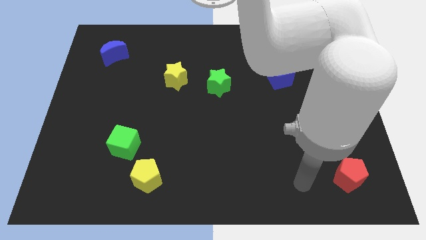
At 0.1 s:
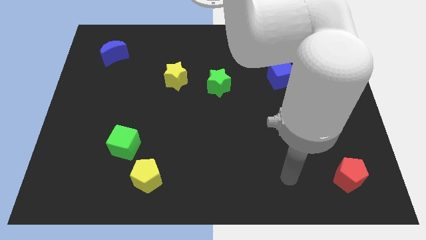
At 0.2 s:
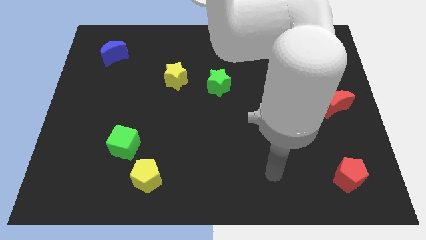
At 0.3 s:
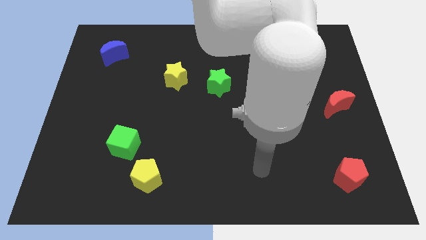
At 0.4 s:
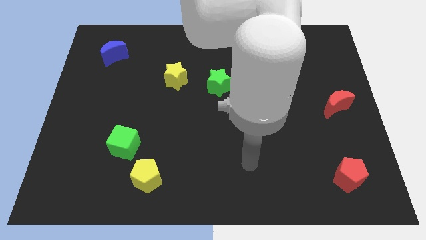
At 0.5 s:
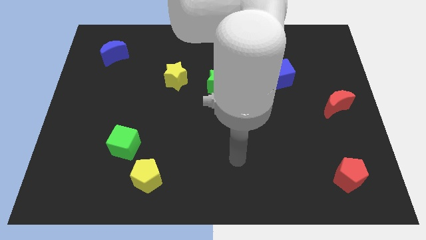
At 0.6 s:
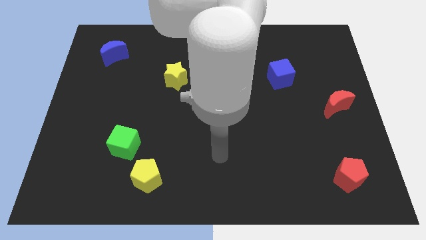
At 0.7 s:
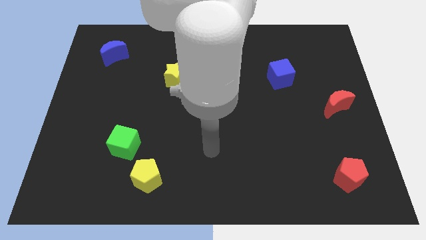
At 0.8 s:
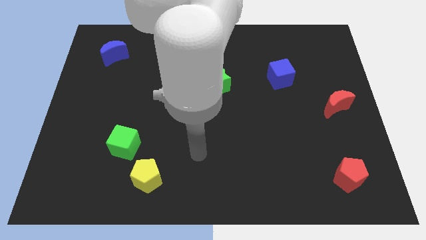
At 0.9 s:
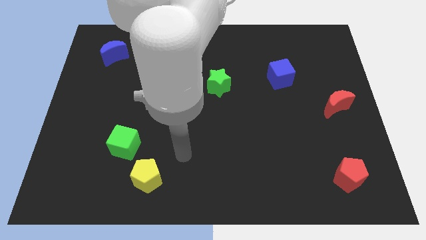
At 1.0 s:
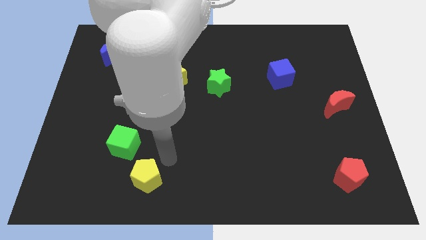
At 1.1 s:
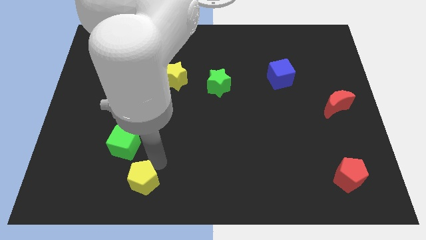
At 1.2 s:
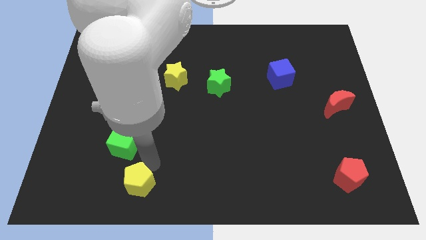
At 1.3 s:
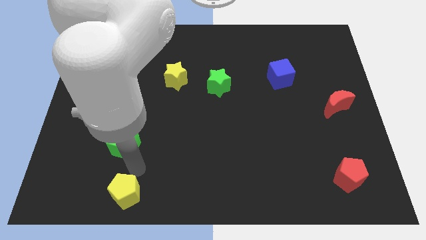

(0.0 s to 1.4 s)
pull the green cube apart from the yellow pentagon

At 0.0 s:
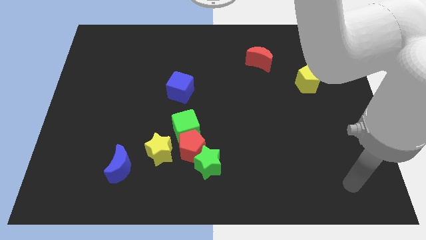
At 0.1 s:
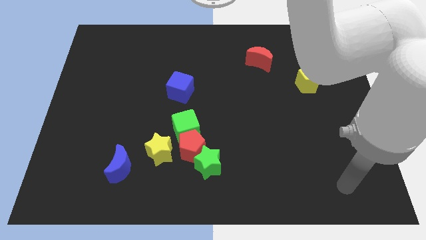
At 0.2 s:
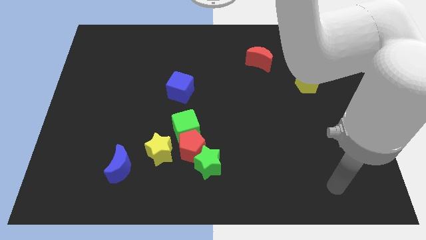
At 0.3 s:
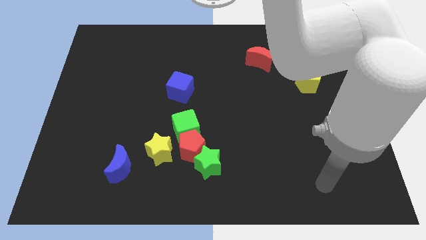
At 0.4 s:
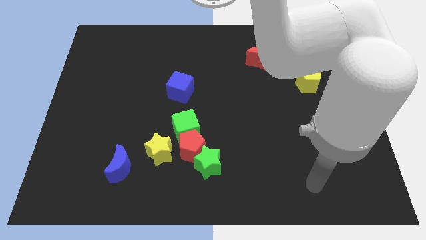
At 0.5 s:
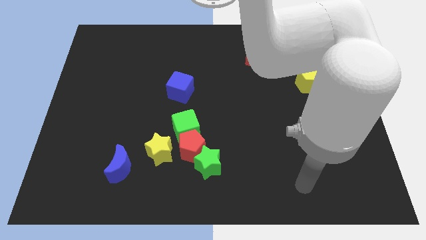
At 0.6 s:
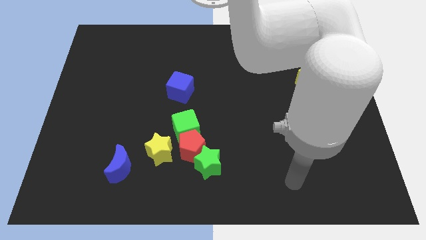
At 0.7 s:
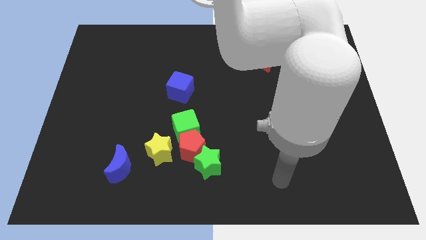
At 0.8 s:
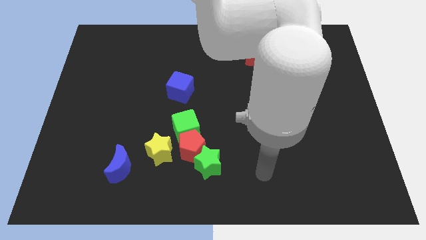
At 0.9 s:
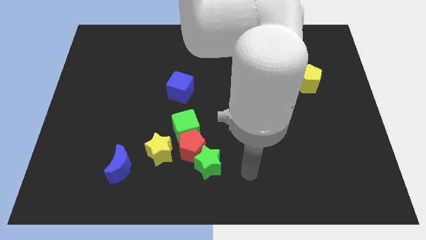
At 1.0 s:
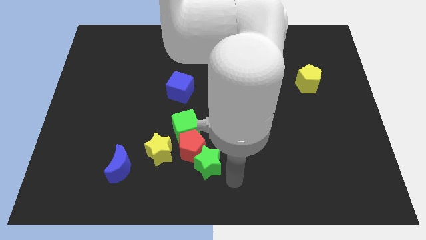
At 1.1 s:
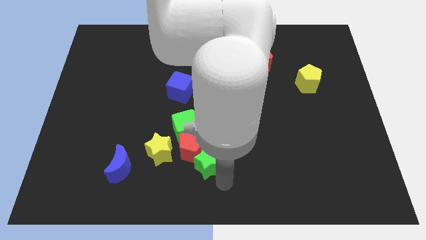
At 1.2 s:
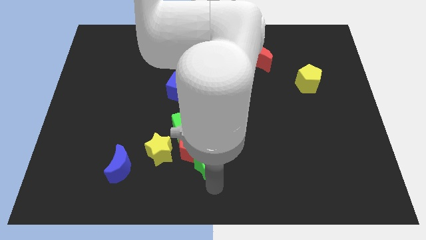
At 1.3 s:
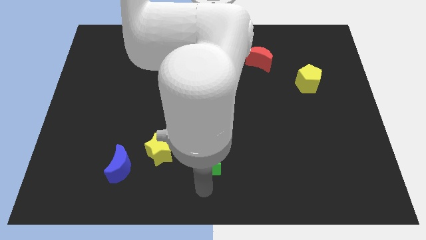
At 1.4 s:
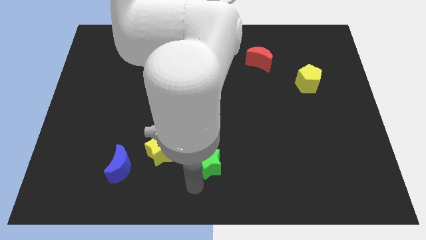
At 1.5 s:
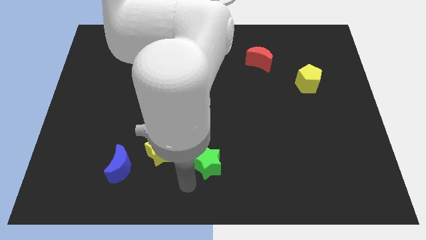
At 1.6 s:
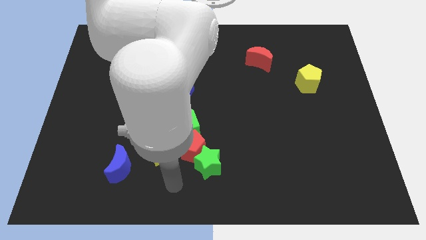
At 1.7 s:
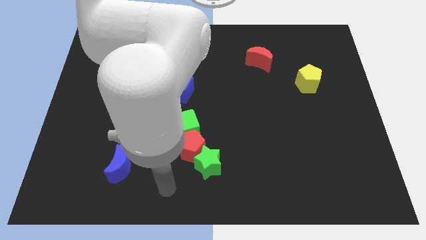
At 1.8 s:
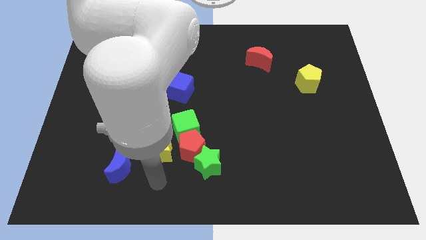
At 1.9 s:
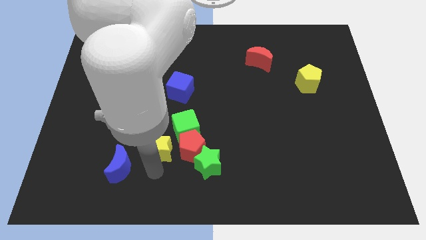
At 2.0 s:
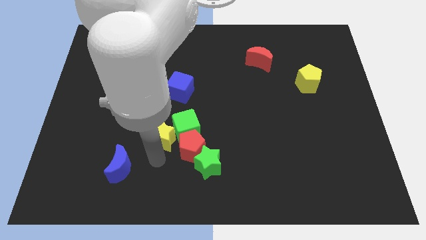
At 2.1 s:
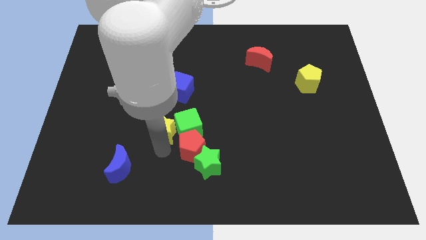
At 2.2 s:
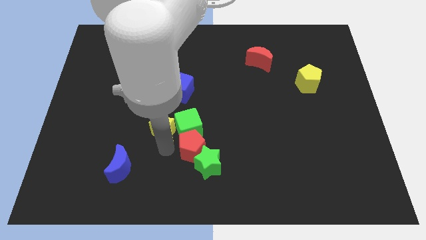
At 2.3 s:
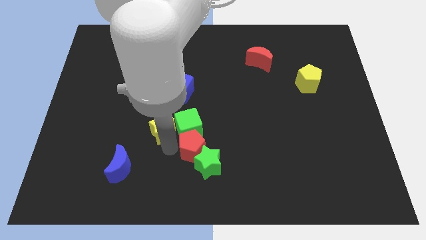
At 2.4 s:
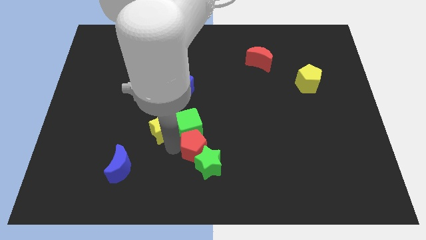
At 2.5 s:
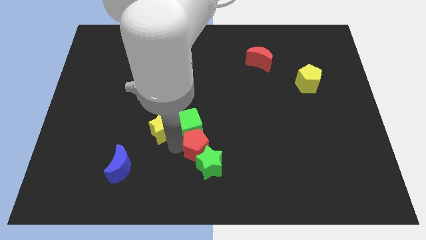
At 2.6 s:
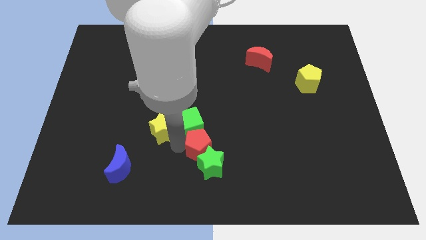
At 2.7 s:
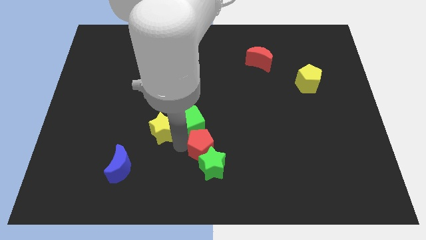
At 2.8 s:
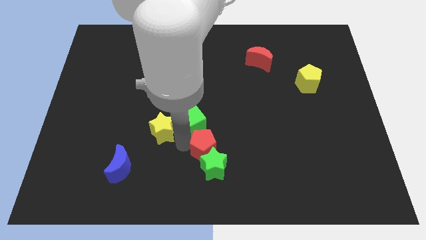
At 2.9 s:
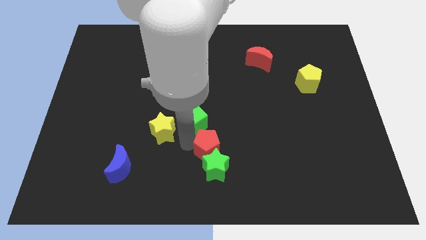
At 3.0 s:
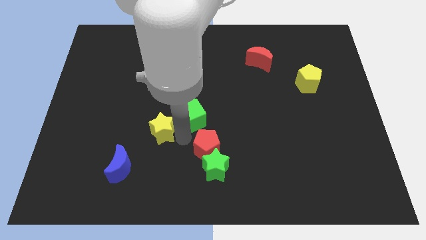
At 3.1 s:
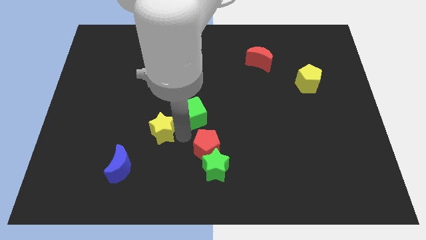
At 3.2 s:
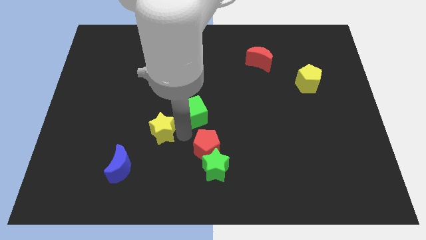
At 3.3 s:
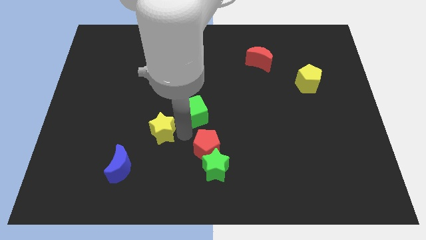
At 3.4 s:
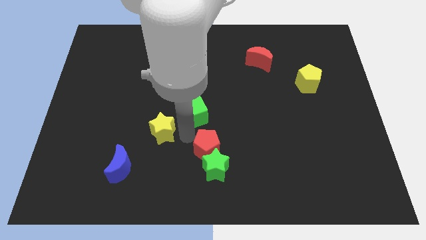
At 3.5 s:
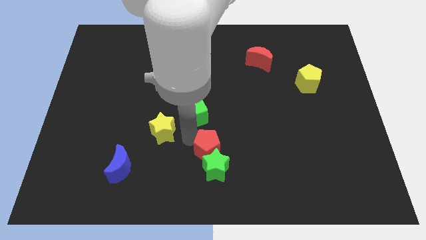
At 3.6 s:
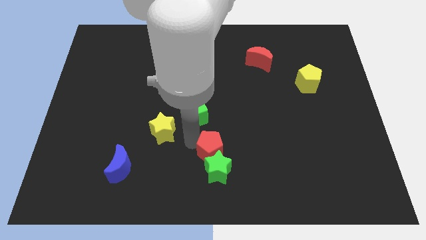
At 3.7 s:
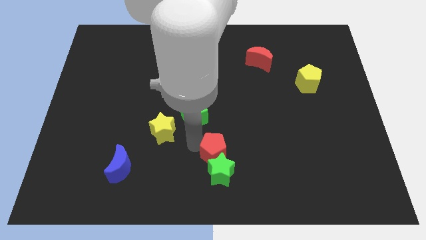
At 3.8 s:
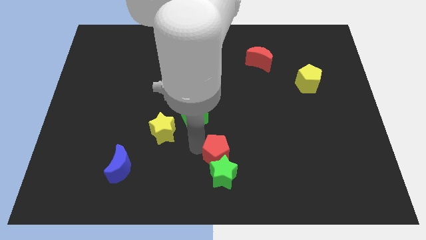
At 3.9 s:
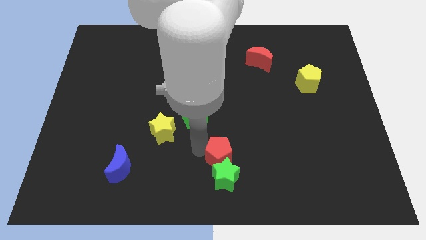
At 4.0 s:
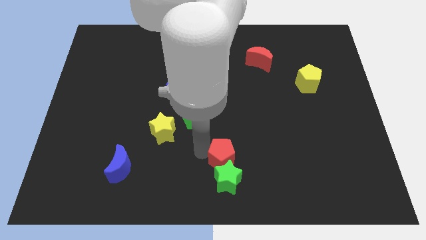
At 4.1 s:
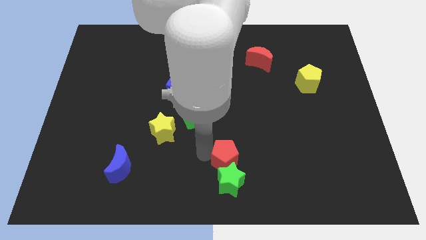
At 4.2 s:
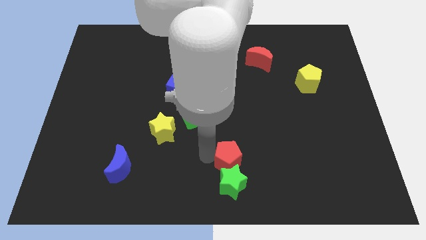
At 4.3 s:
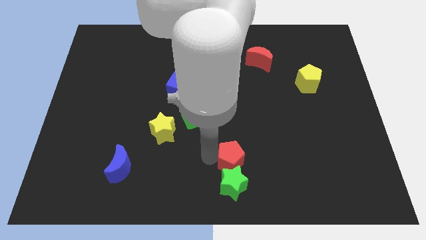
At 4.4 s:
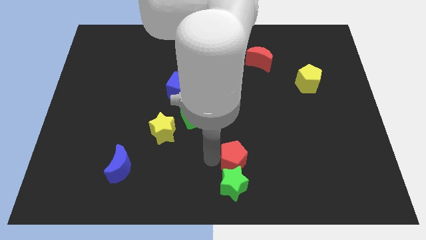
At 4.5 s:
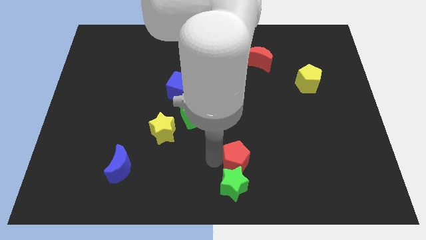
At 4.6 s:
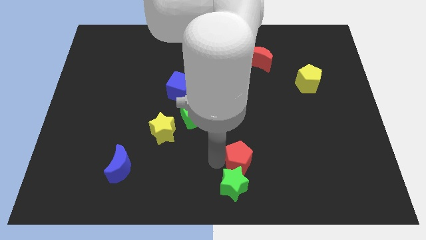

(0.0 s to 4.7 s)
pull the red pentagon apart from the green cube, green star, and yellow star

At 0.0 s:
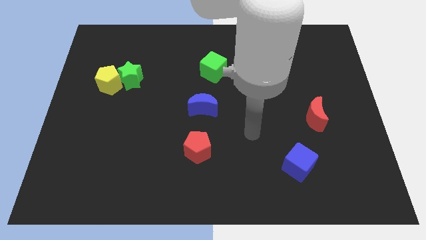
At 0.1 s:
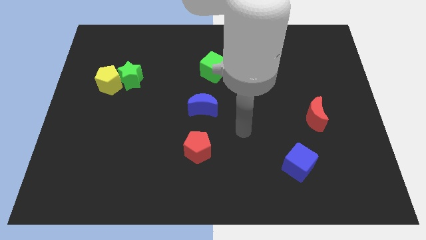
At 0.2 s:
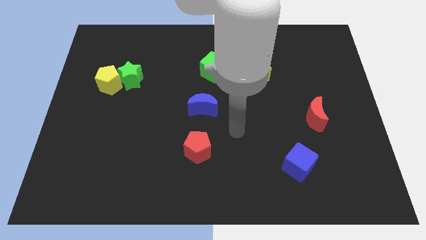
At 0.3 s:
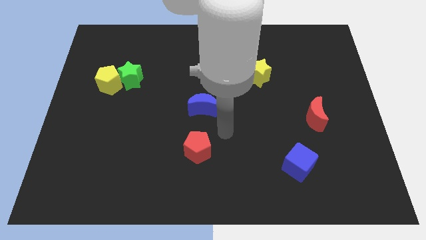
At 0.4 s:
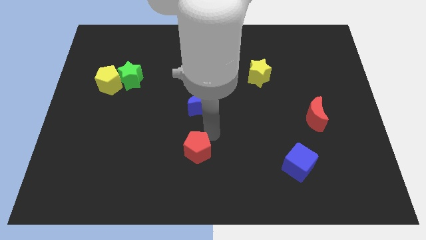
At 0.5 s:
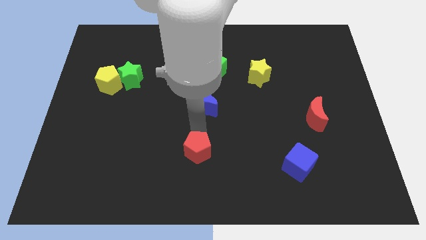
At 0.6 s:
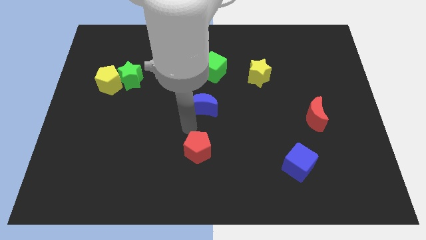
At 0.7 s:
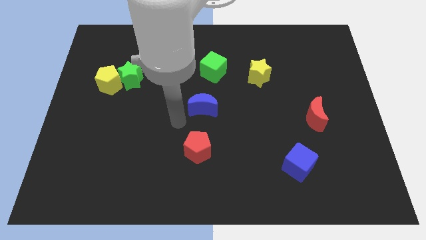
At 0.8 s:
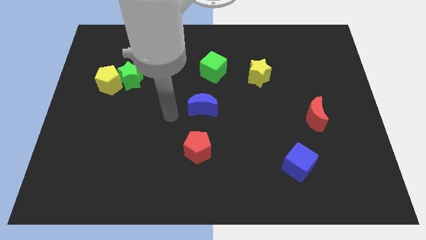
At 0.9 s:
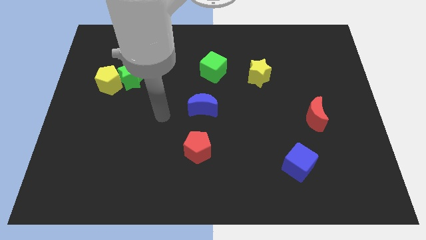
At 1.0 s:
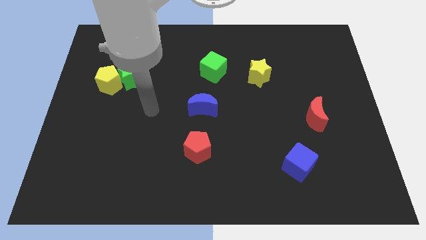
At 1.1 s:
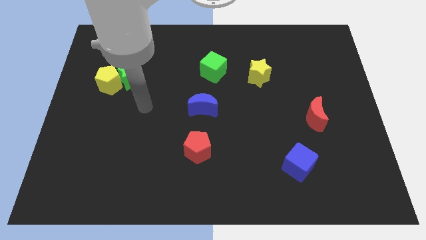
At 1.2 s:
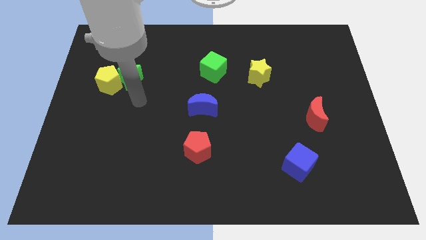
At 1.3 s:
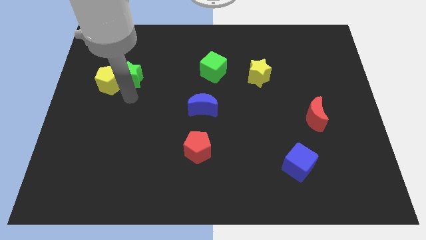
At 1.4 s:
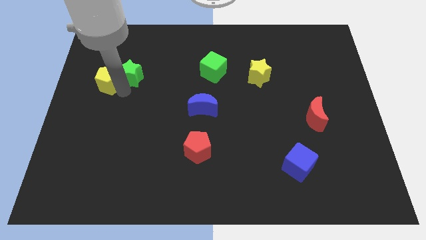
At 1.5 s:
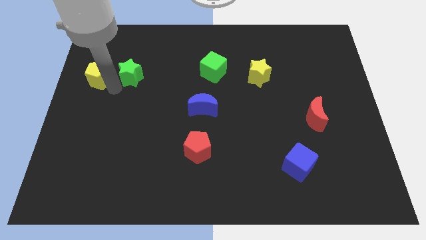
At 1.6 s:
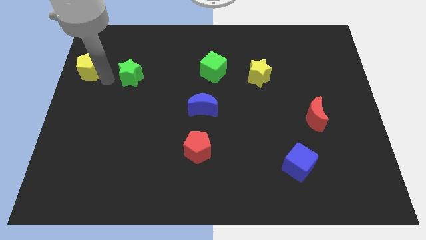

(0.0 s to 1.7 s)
move the green star away from the yellow pentagon

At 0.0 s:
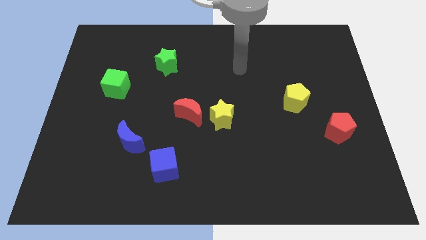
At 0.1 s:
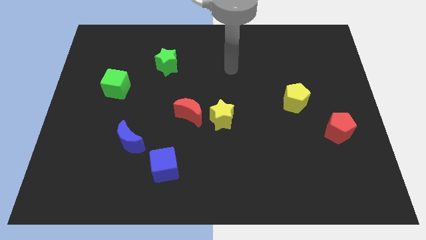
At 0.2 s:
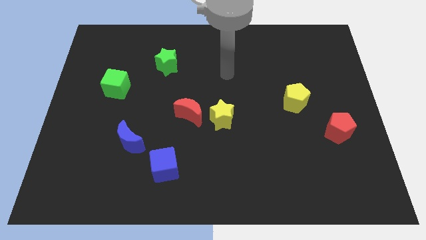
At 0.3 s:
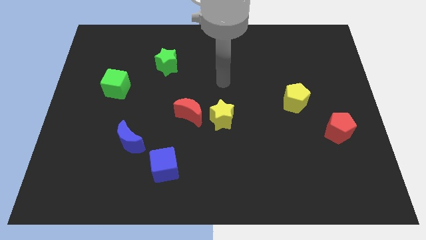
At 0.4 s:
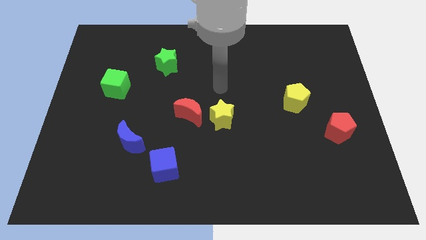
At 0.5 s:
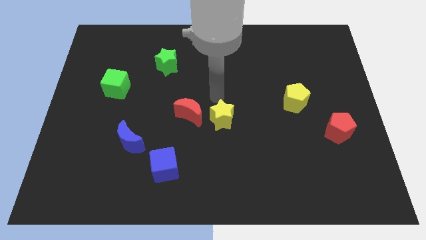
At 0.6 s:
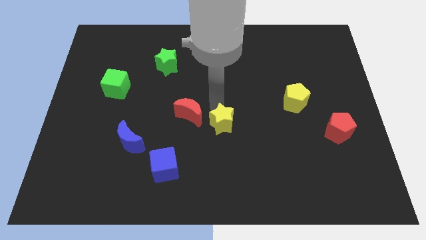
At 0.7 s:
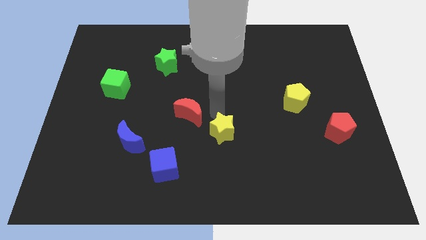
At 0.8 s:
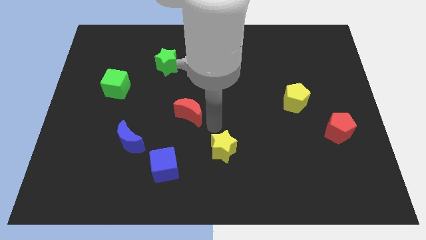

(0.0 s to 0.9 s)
separate the red moon from the yellow star

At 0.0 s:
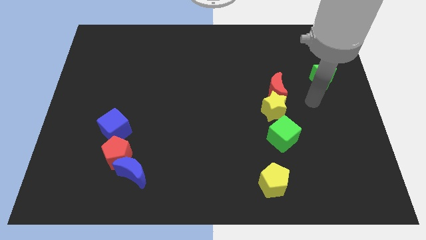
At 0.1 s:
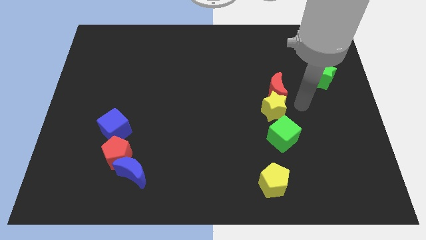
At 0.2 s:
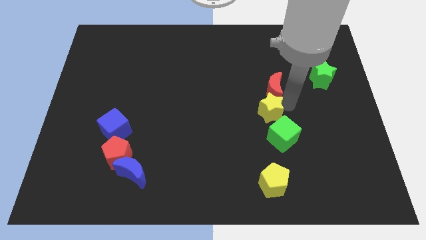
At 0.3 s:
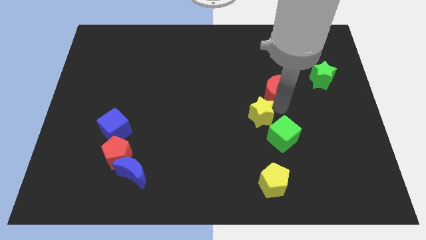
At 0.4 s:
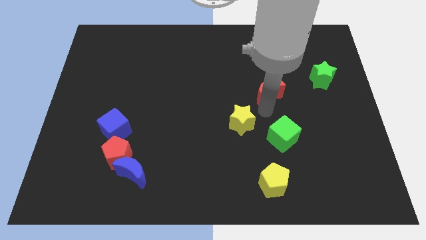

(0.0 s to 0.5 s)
pull the red moon apart from the yellow star
